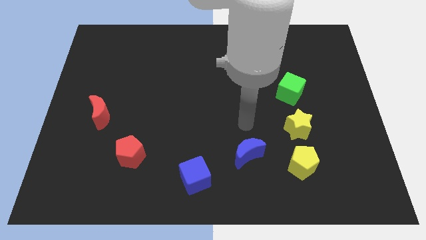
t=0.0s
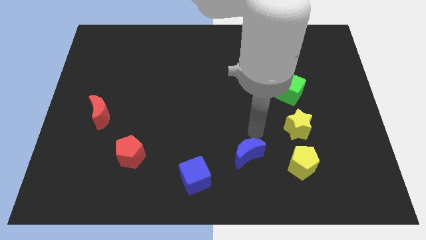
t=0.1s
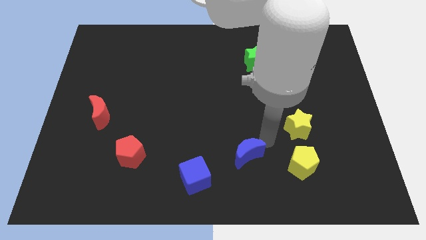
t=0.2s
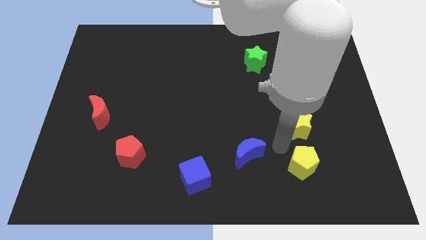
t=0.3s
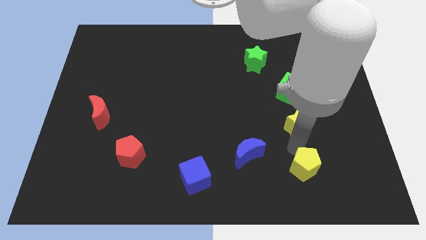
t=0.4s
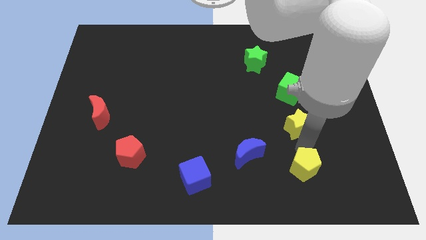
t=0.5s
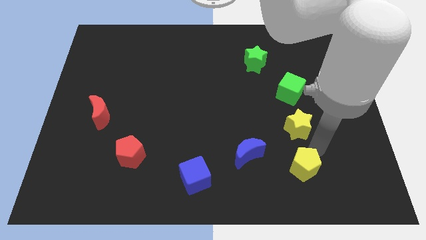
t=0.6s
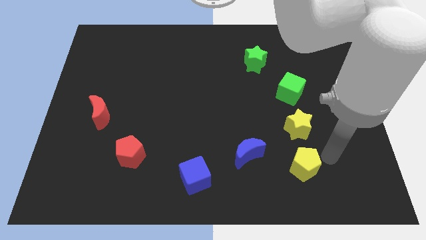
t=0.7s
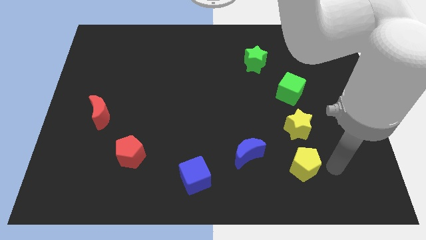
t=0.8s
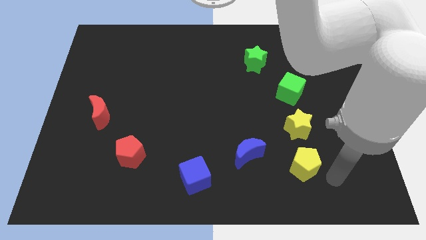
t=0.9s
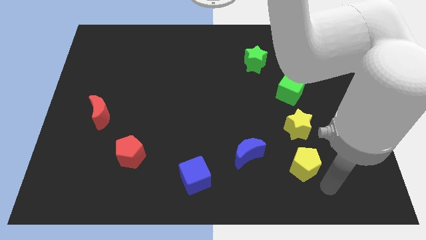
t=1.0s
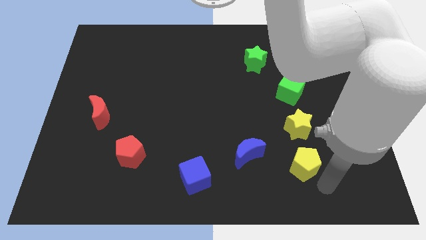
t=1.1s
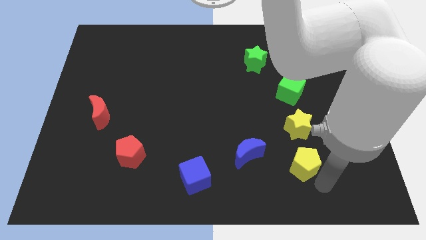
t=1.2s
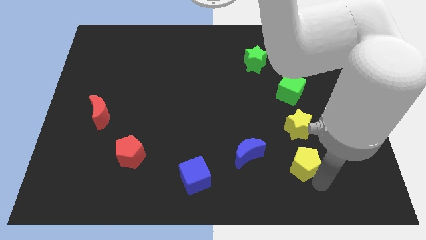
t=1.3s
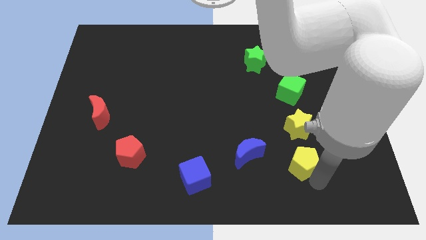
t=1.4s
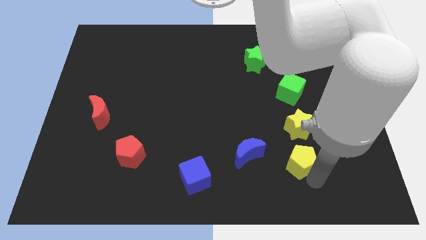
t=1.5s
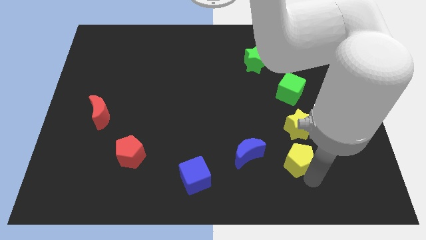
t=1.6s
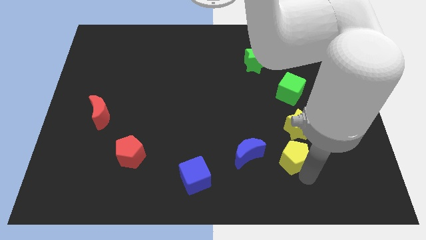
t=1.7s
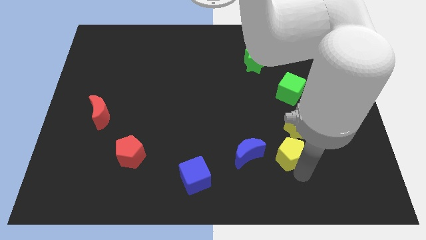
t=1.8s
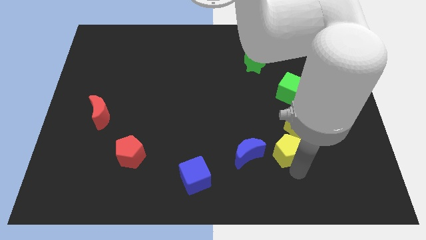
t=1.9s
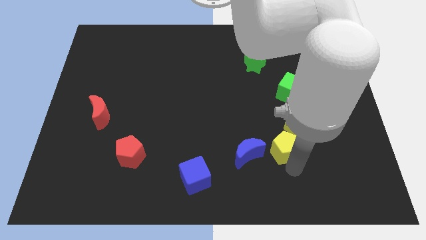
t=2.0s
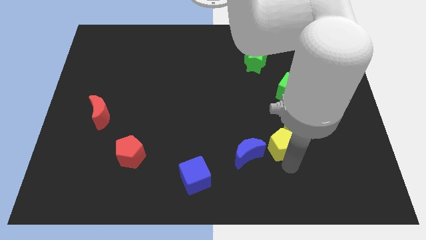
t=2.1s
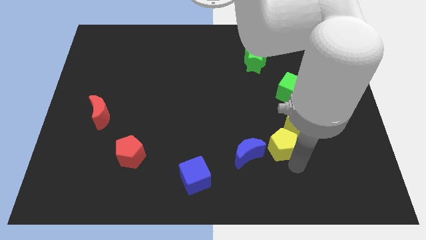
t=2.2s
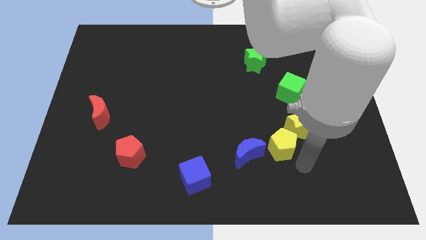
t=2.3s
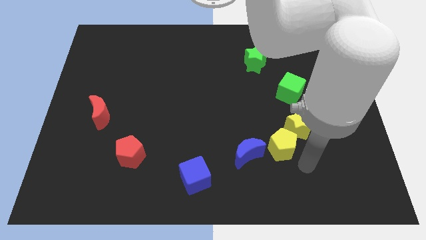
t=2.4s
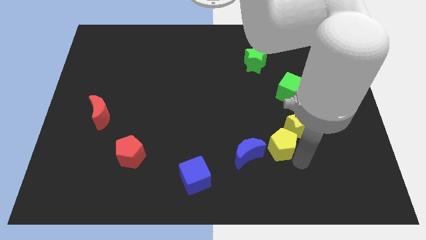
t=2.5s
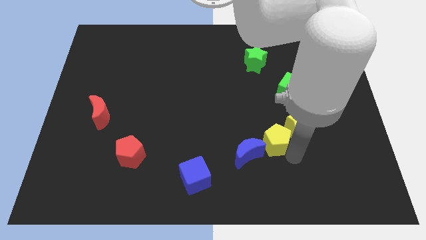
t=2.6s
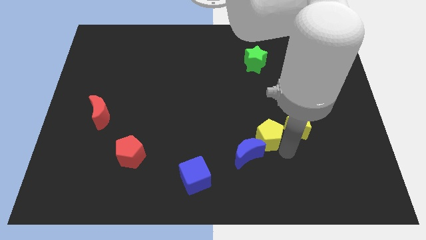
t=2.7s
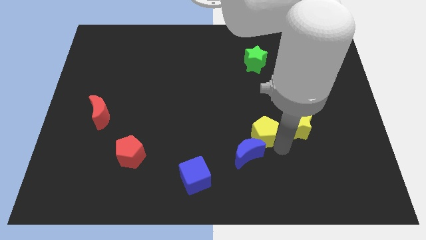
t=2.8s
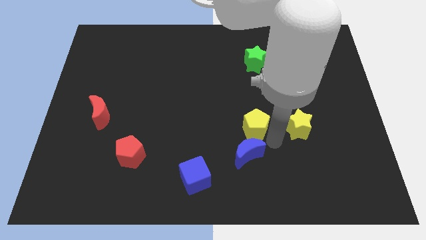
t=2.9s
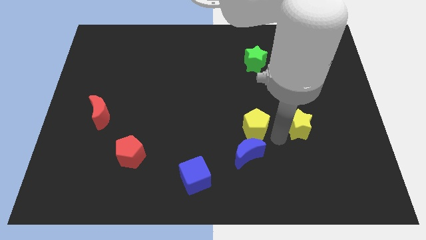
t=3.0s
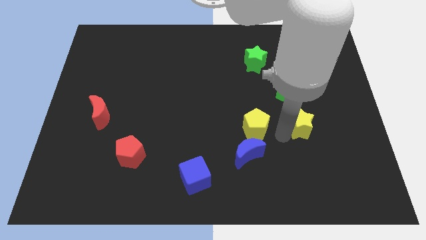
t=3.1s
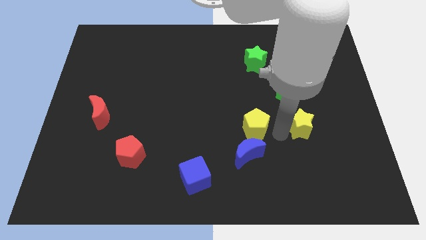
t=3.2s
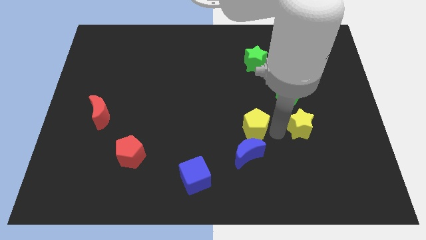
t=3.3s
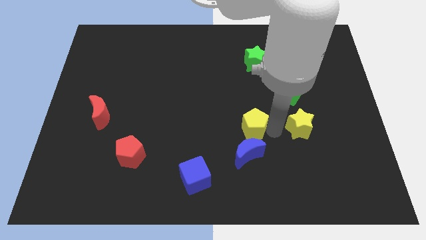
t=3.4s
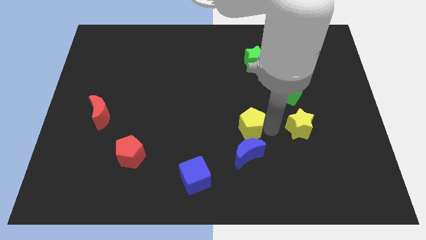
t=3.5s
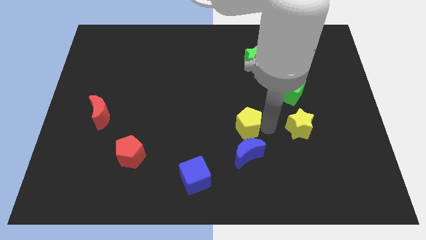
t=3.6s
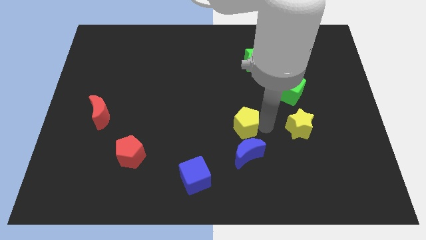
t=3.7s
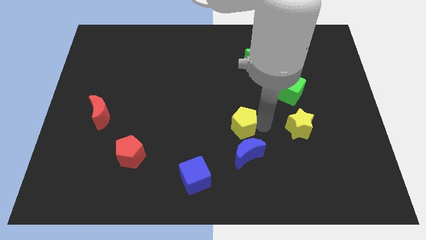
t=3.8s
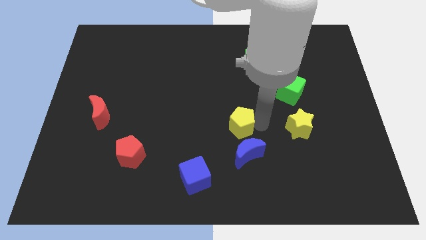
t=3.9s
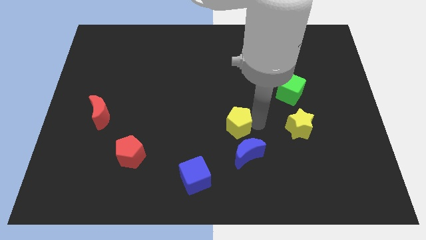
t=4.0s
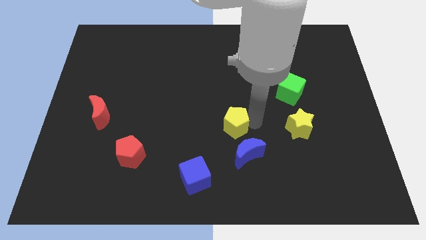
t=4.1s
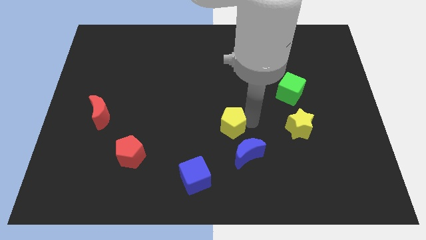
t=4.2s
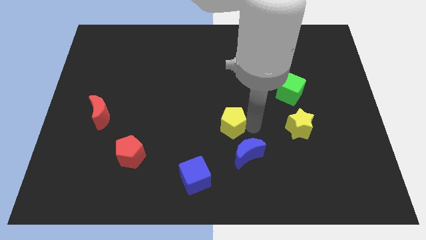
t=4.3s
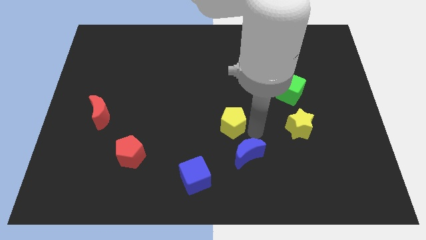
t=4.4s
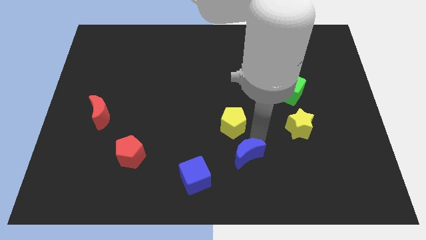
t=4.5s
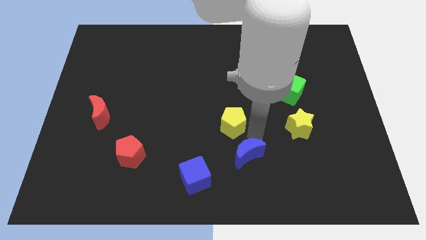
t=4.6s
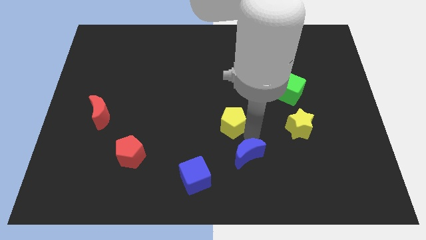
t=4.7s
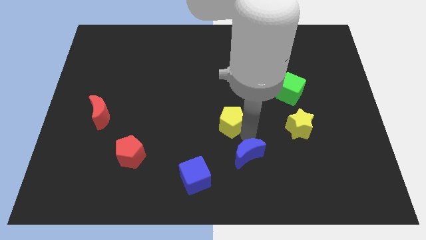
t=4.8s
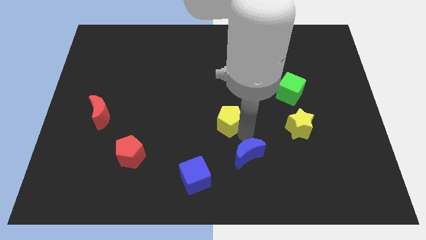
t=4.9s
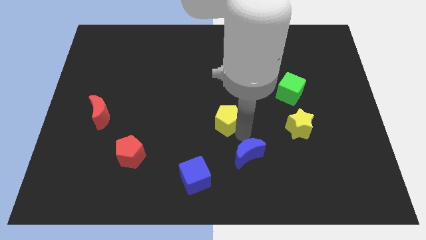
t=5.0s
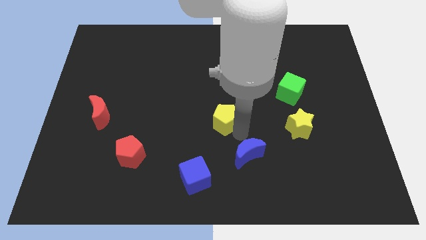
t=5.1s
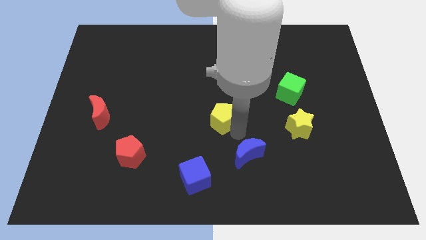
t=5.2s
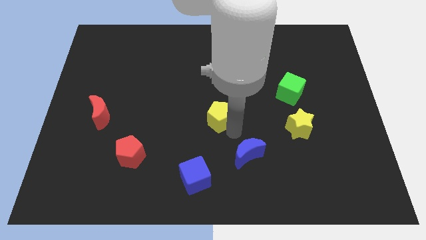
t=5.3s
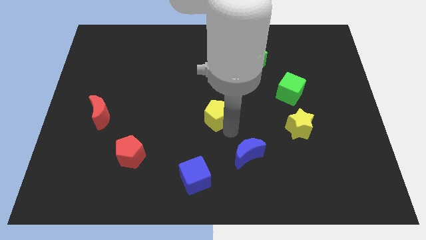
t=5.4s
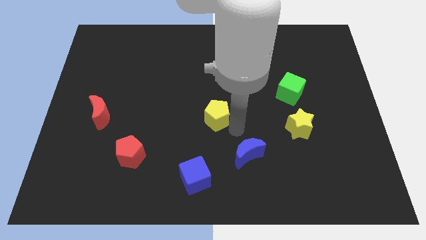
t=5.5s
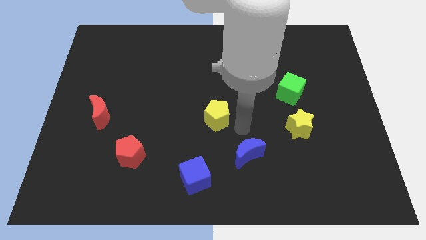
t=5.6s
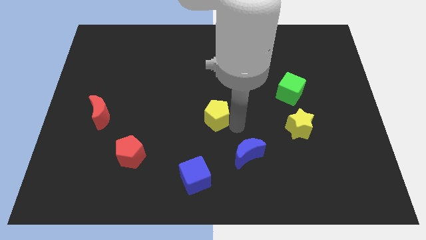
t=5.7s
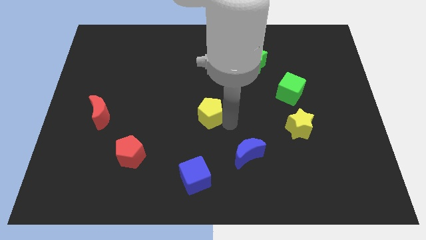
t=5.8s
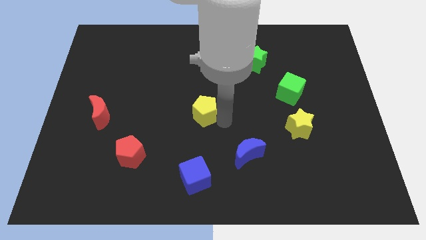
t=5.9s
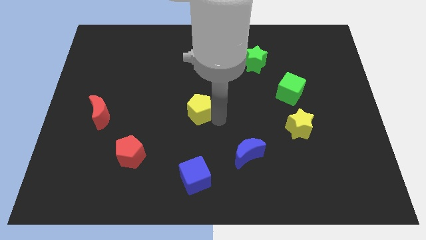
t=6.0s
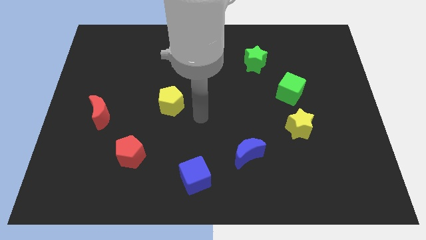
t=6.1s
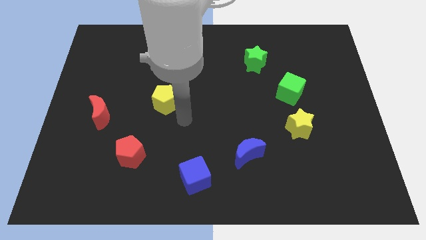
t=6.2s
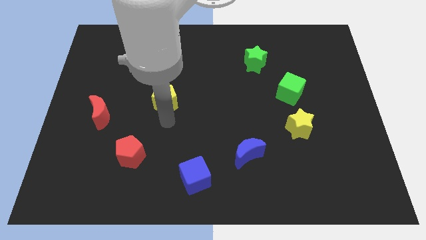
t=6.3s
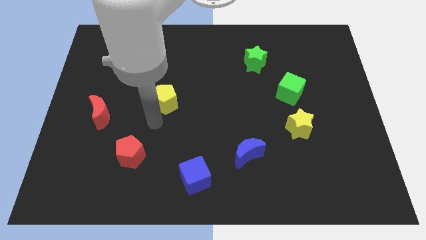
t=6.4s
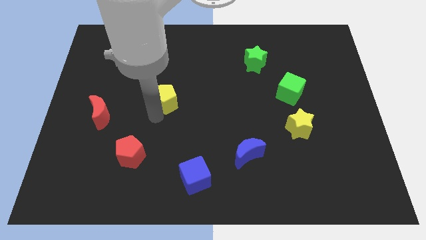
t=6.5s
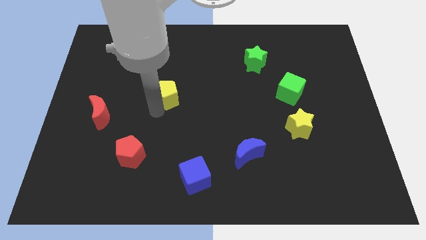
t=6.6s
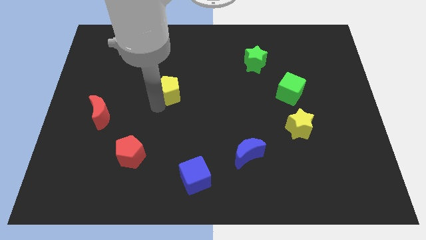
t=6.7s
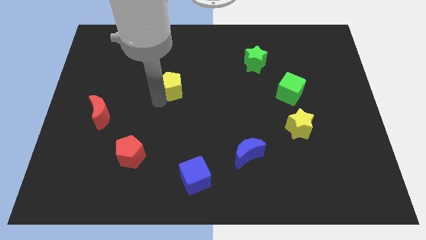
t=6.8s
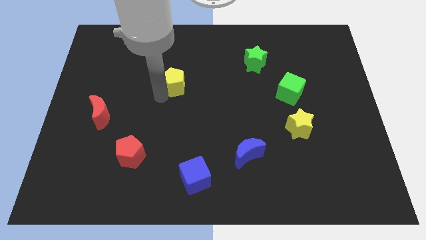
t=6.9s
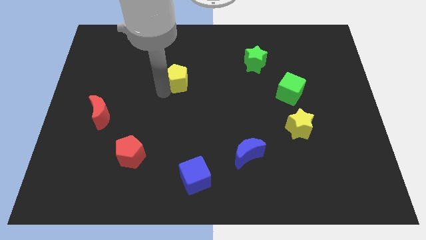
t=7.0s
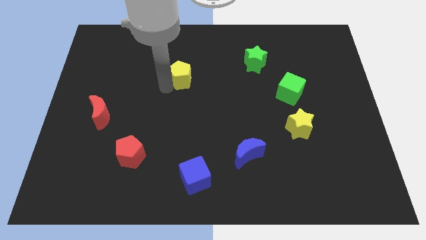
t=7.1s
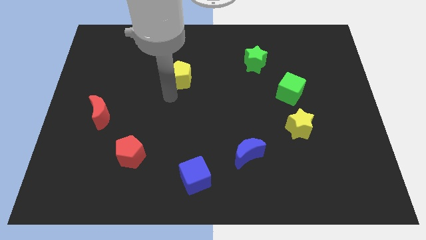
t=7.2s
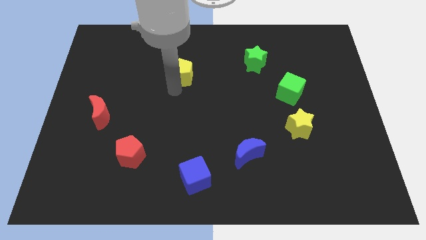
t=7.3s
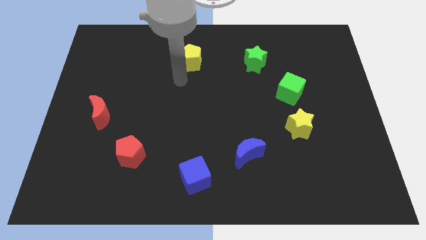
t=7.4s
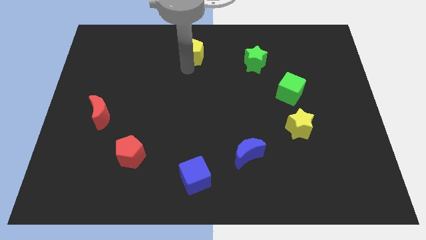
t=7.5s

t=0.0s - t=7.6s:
put the yellow pentagon to the top side

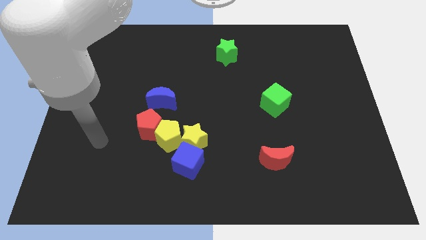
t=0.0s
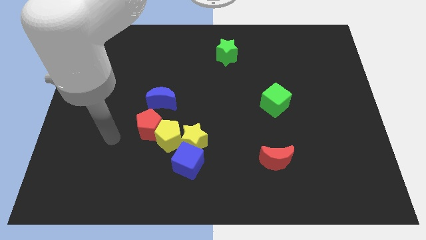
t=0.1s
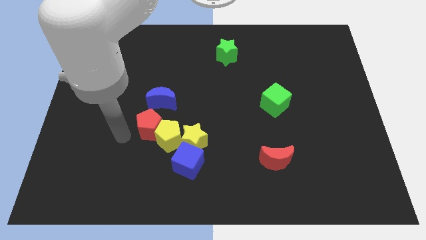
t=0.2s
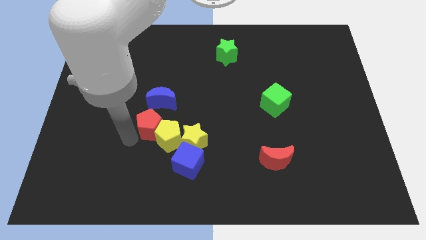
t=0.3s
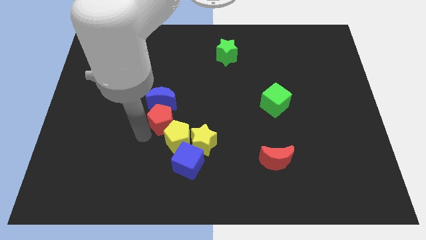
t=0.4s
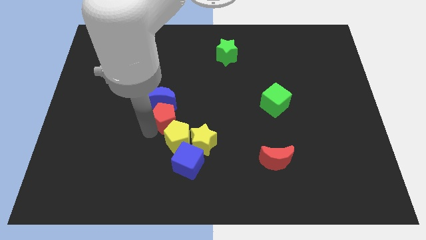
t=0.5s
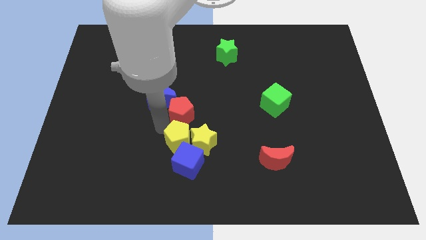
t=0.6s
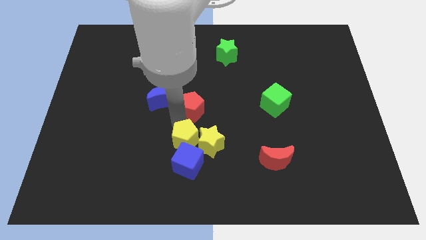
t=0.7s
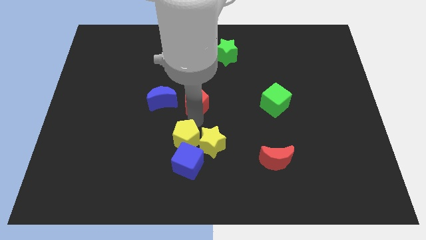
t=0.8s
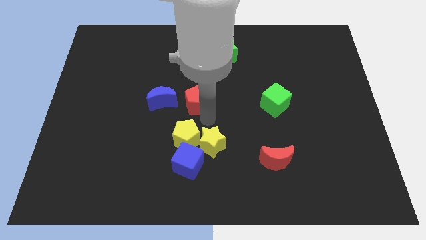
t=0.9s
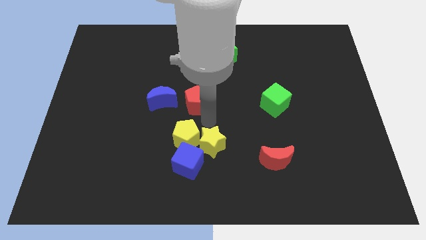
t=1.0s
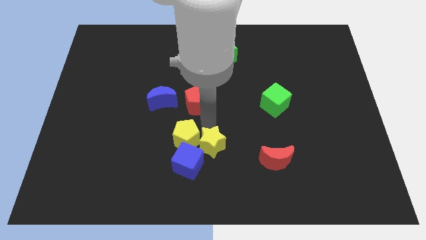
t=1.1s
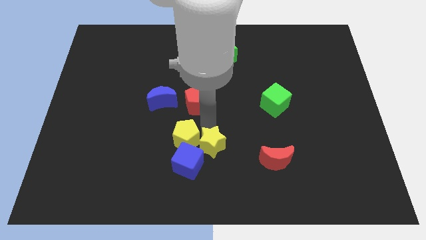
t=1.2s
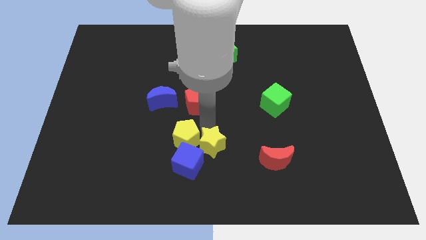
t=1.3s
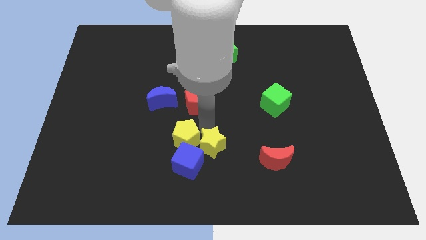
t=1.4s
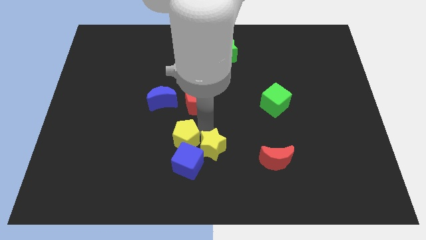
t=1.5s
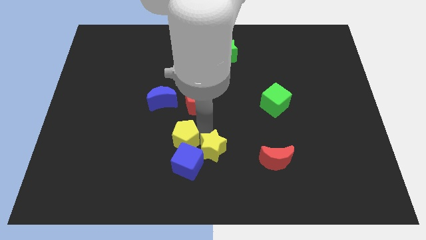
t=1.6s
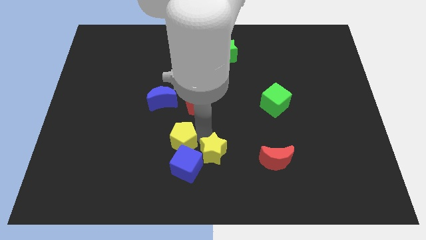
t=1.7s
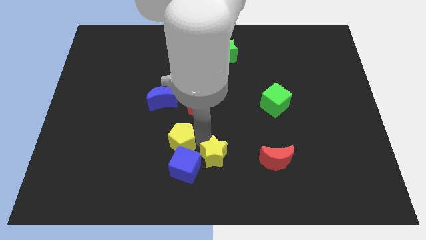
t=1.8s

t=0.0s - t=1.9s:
push the yellow star to the bottom
